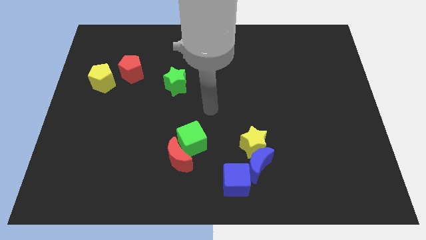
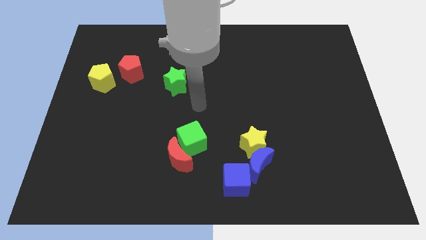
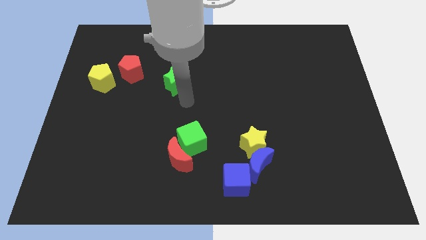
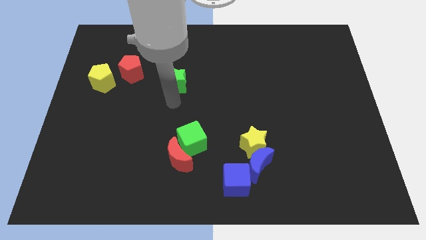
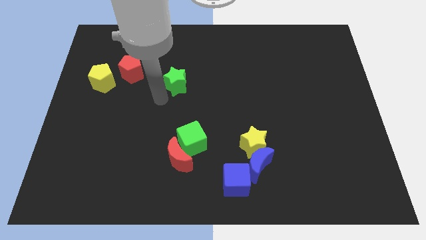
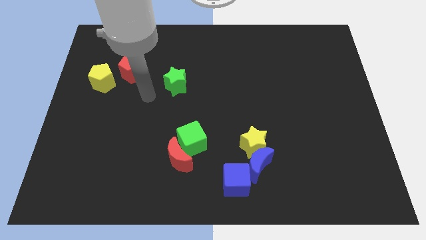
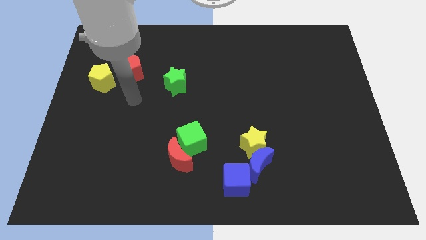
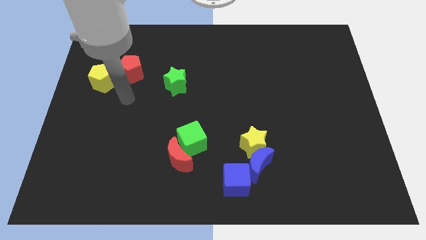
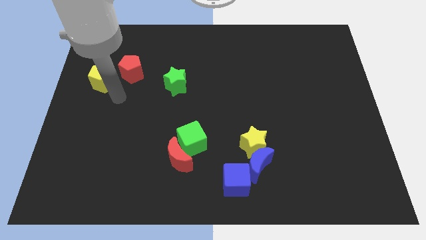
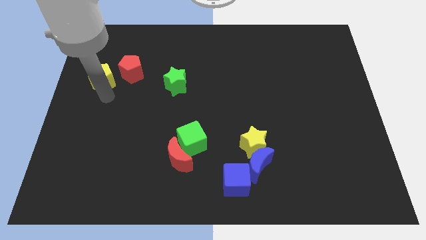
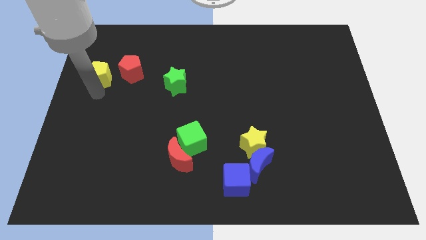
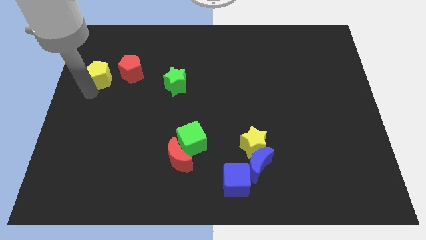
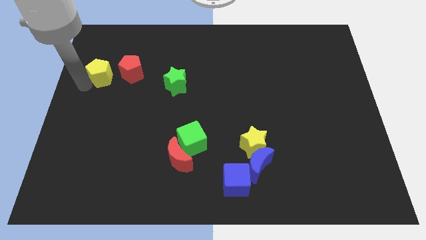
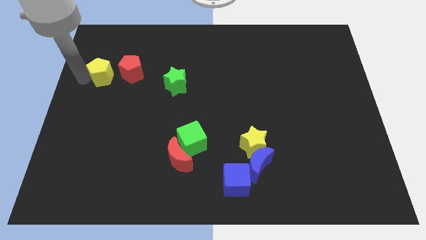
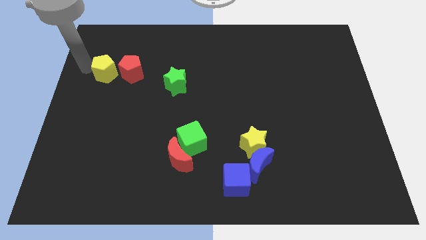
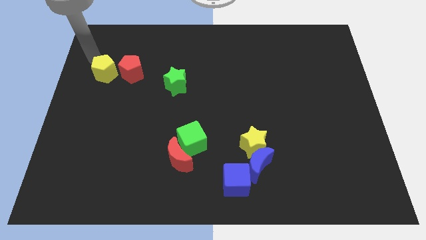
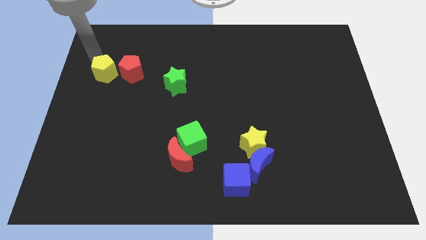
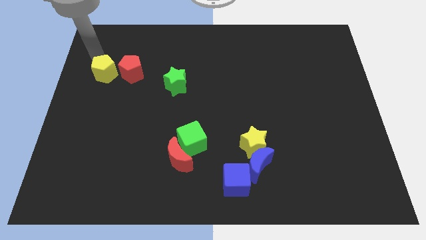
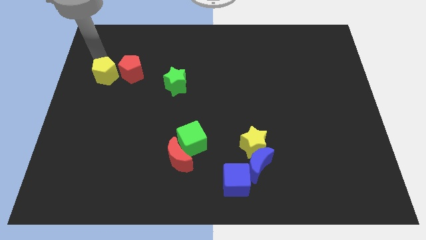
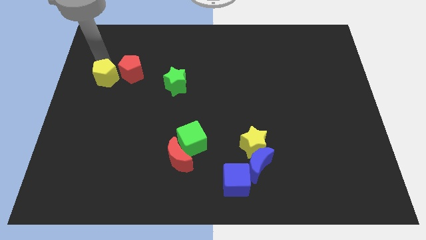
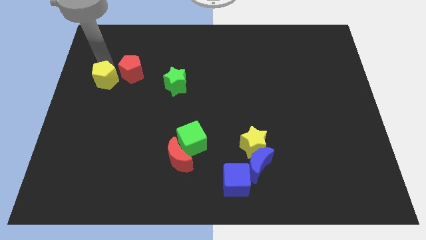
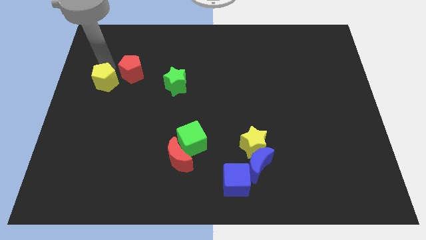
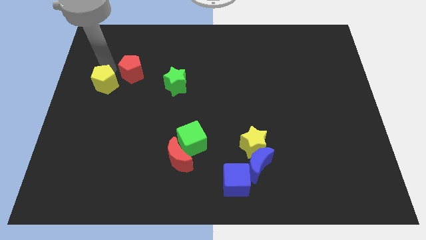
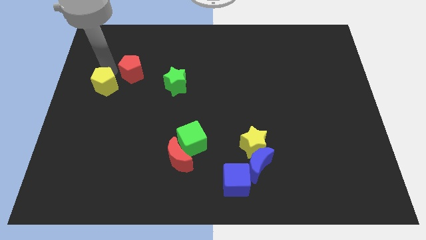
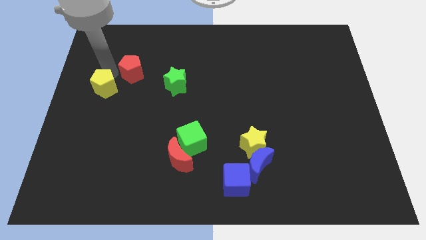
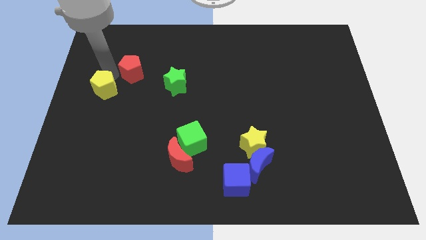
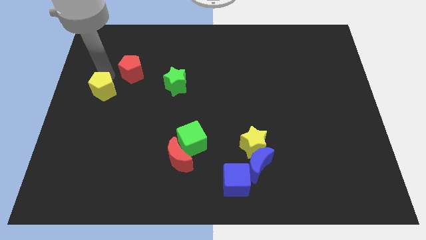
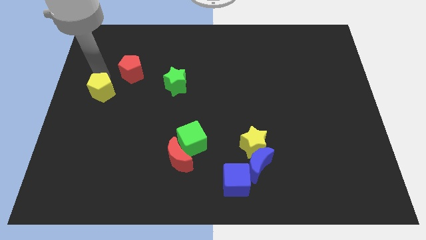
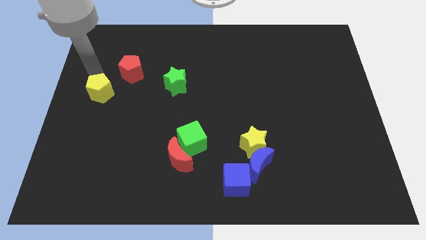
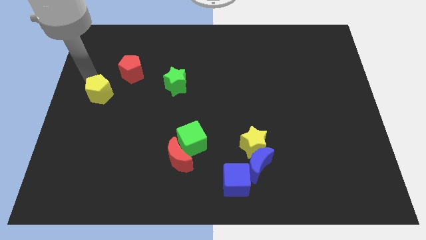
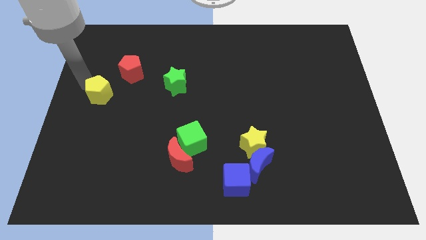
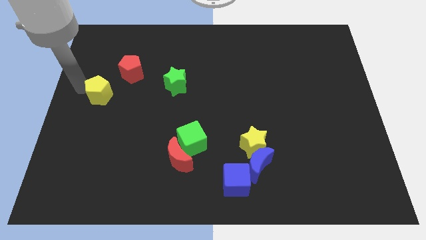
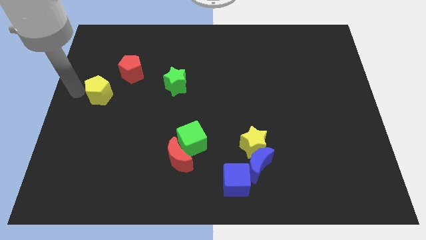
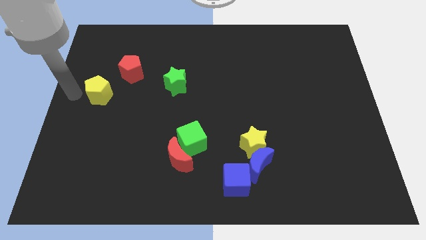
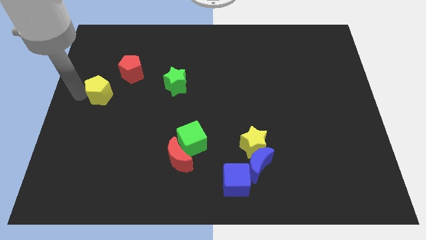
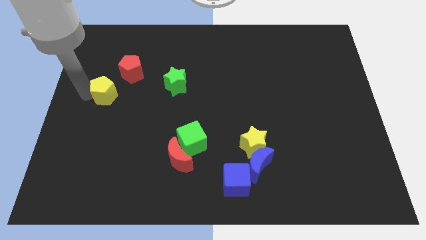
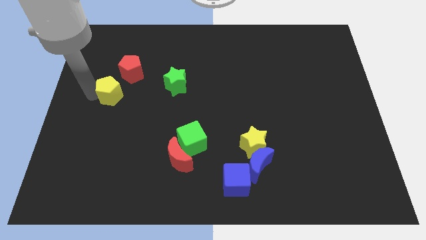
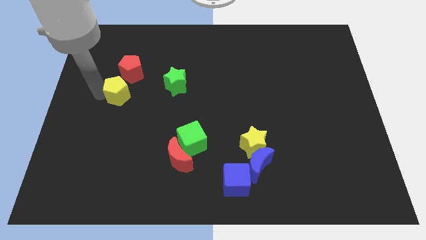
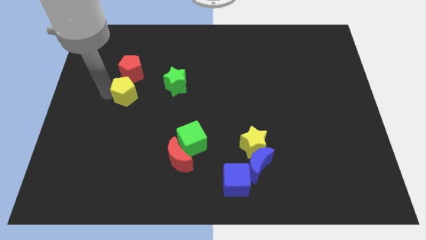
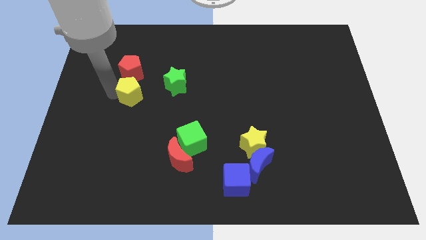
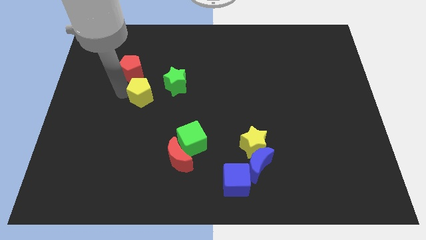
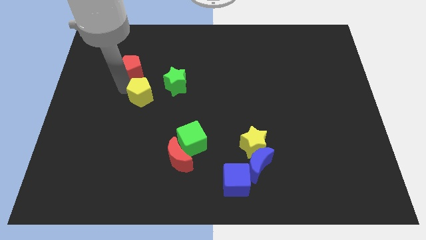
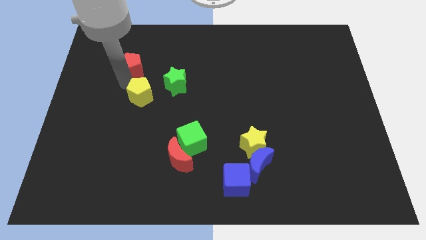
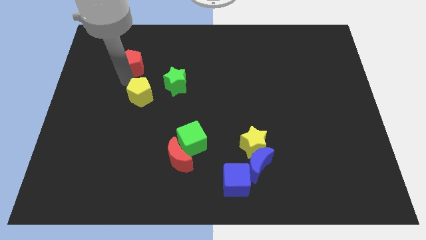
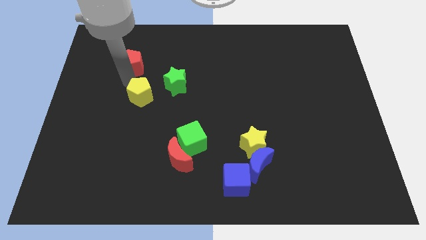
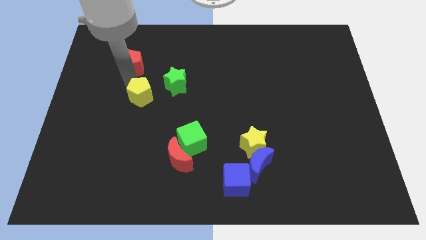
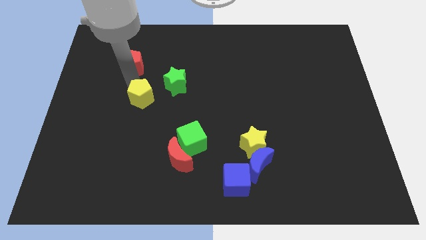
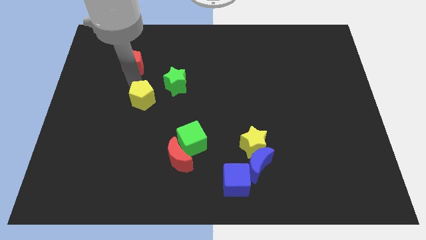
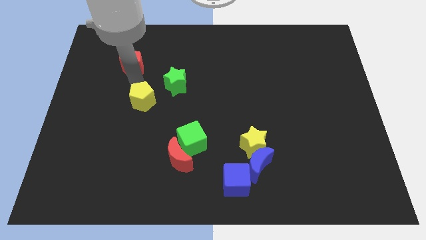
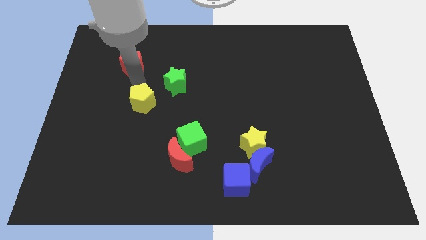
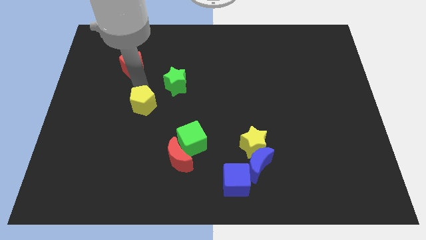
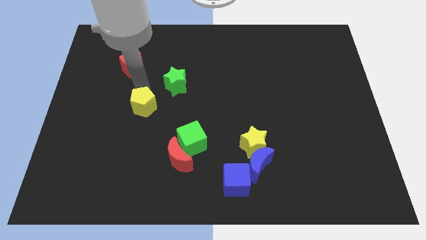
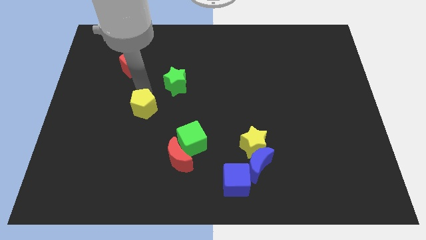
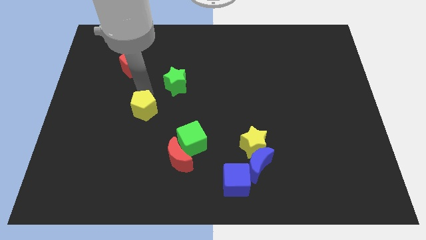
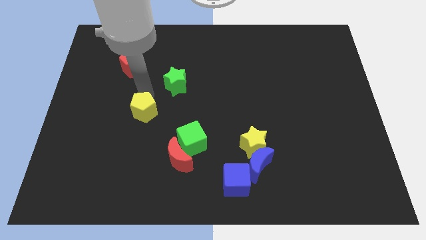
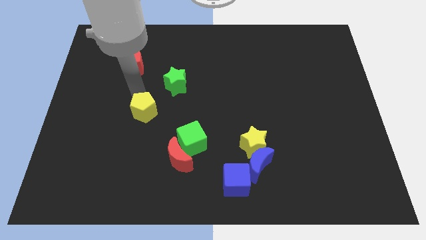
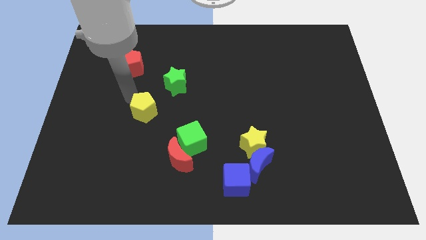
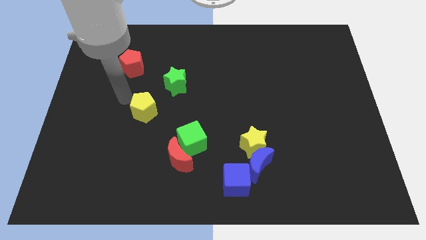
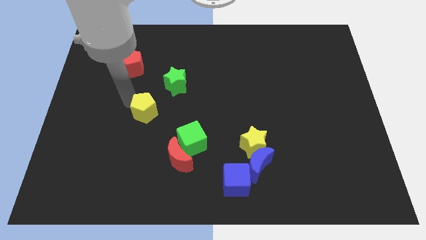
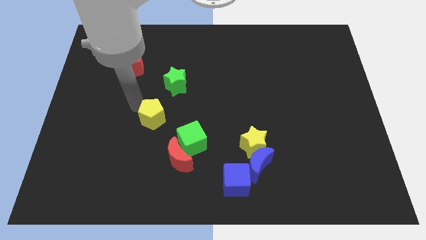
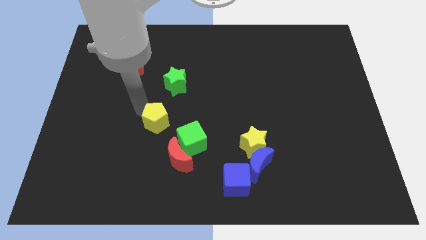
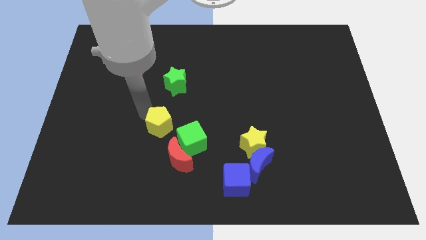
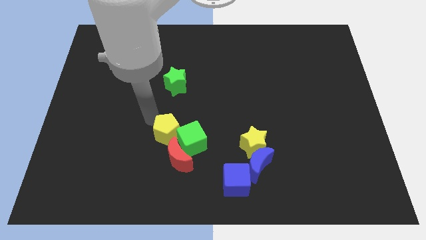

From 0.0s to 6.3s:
move the yellow pentagon close to the green cube

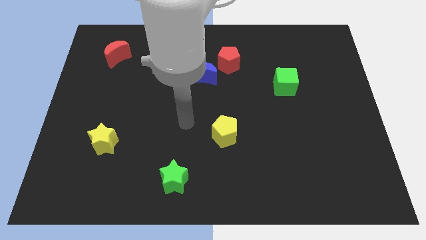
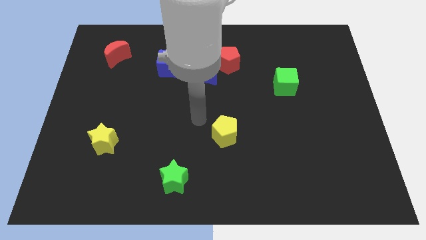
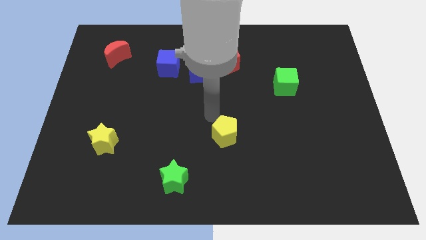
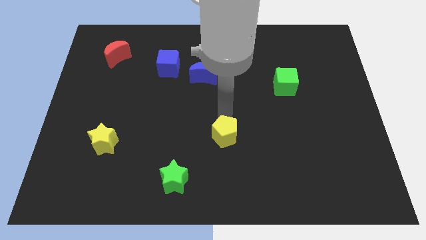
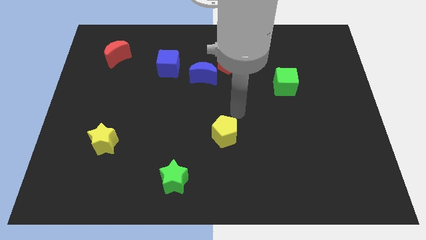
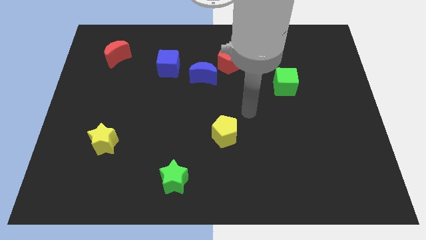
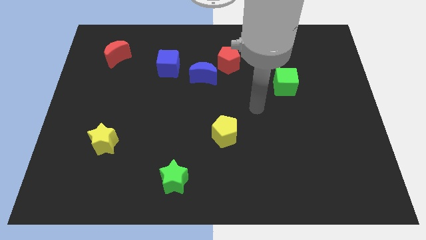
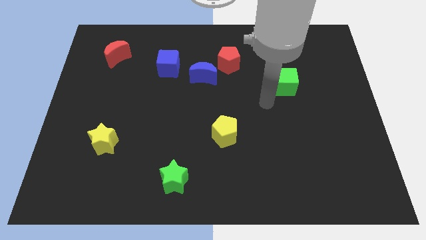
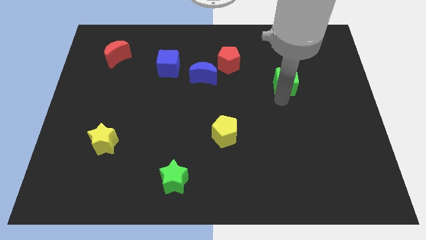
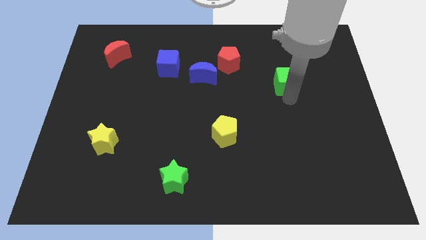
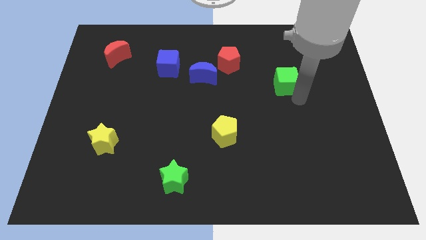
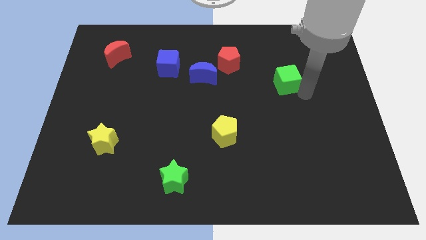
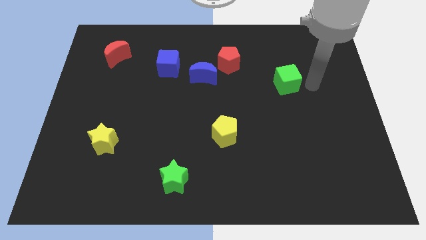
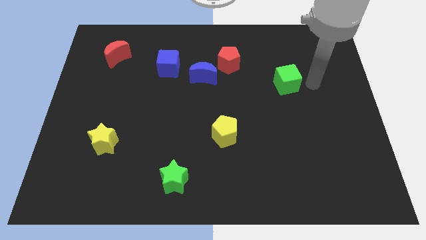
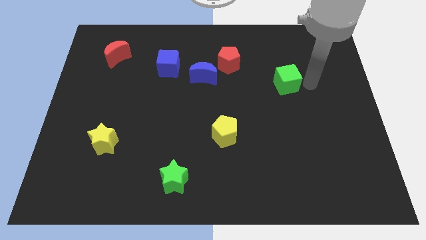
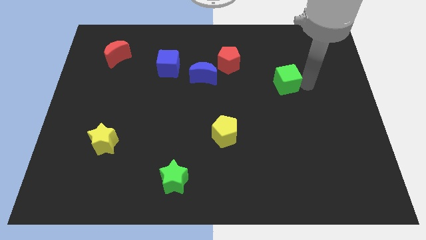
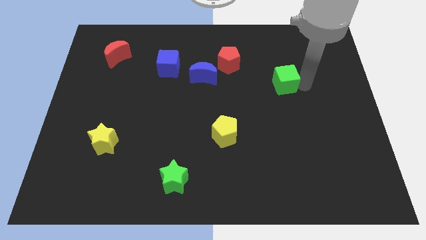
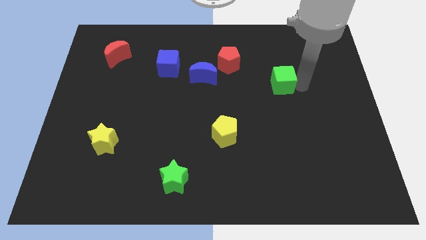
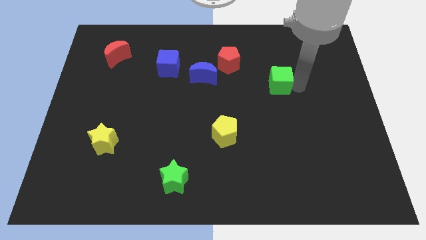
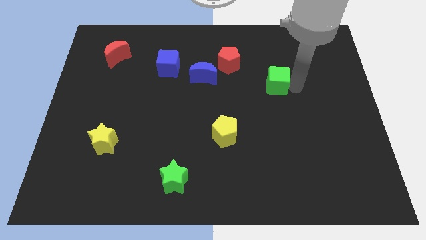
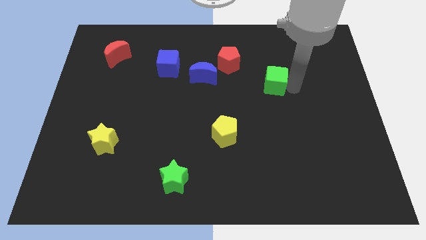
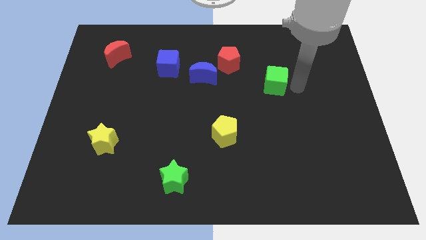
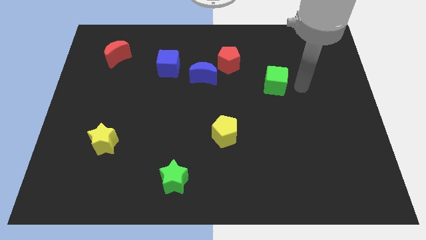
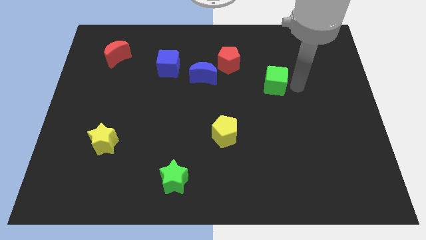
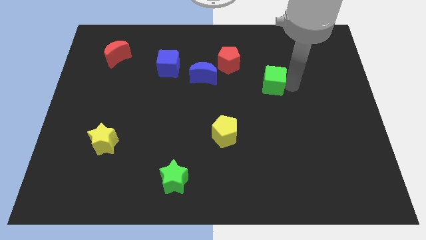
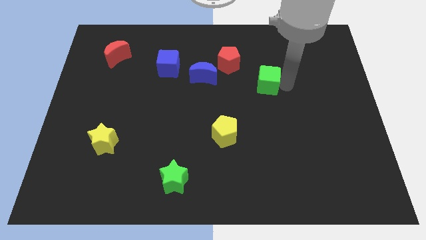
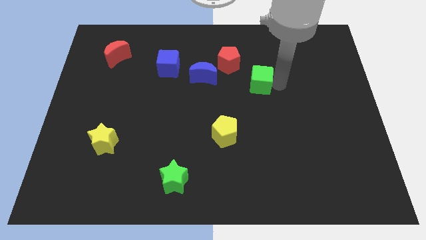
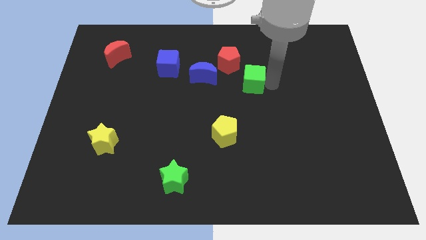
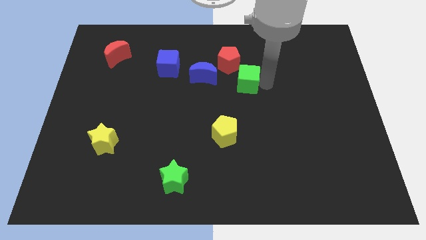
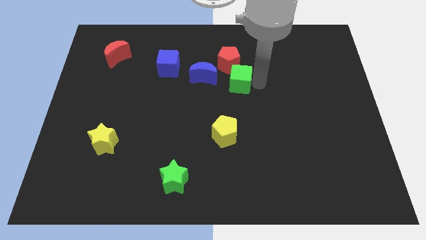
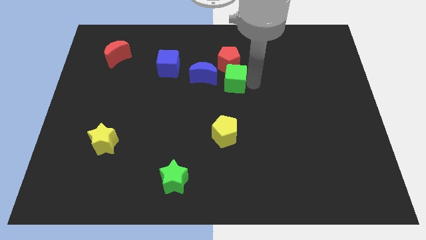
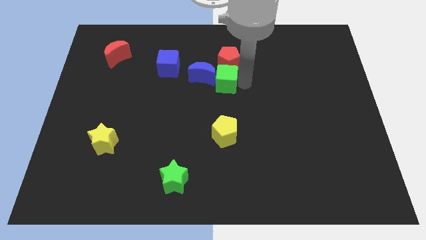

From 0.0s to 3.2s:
move the green cube next to the blue moon
